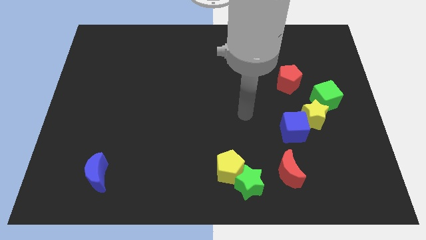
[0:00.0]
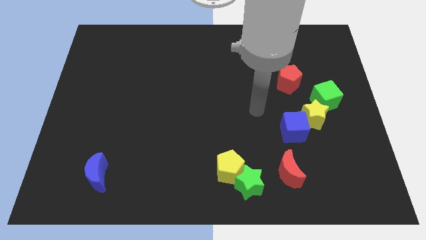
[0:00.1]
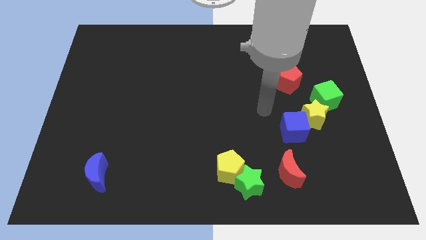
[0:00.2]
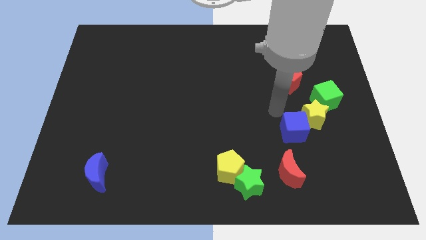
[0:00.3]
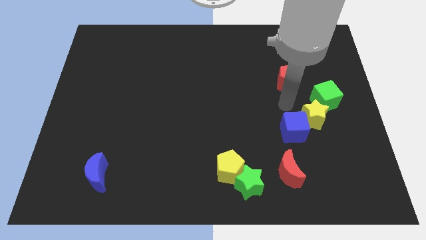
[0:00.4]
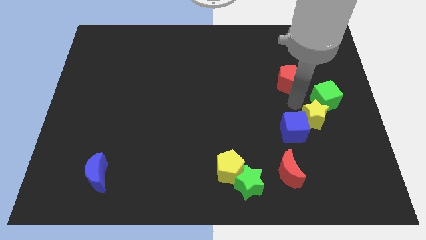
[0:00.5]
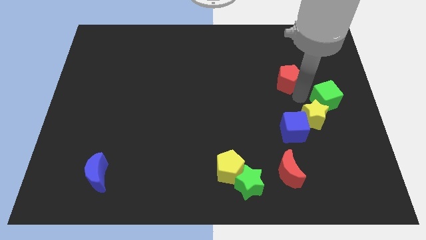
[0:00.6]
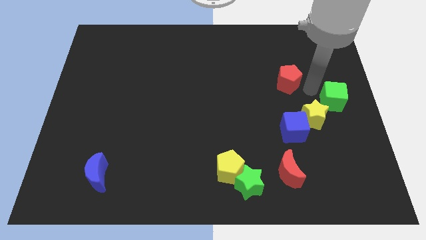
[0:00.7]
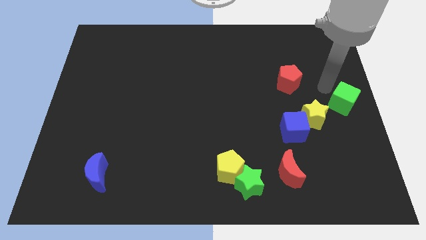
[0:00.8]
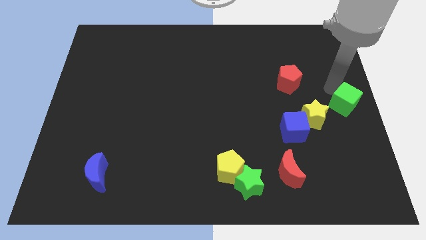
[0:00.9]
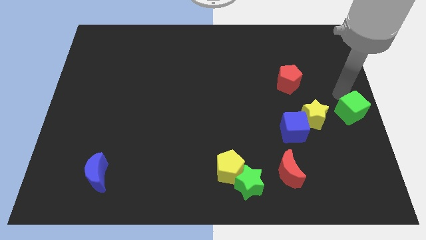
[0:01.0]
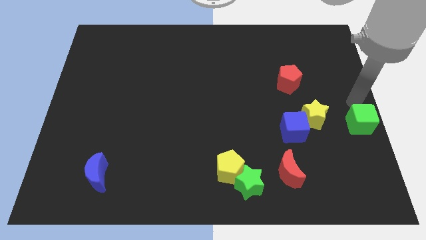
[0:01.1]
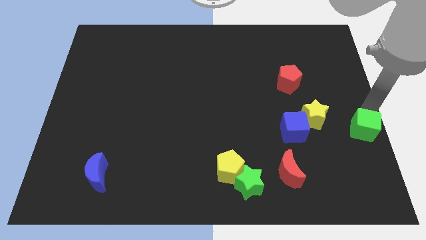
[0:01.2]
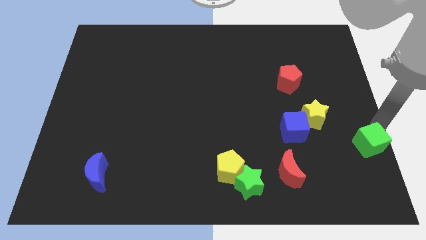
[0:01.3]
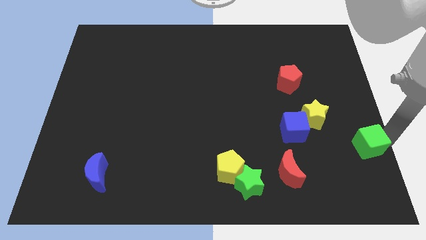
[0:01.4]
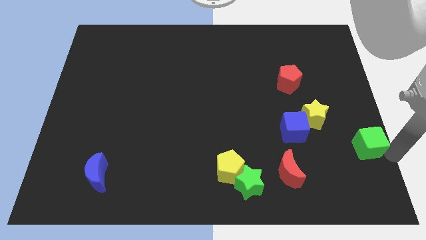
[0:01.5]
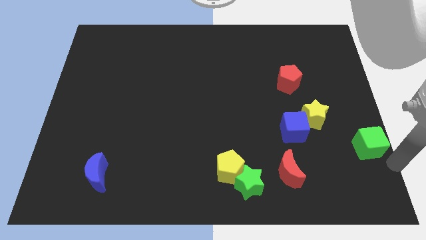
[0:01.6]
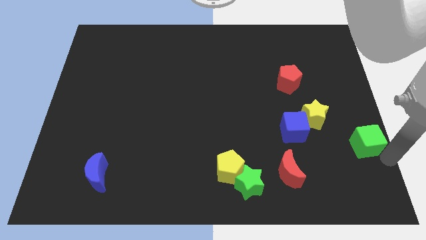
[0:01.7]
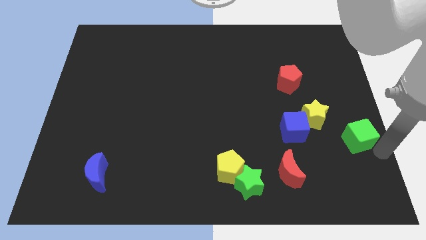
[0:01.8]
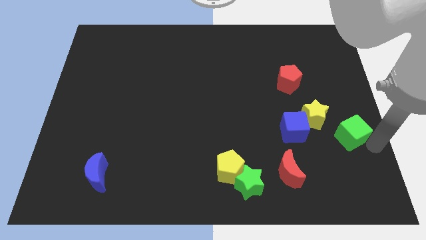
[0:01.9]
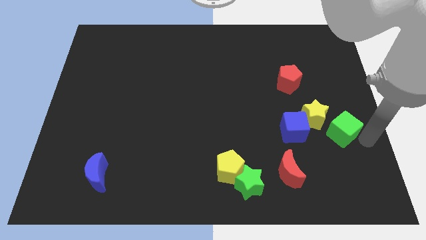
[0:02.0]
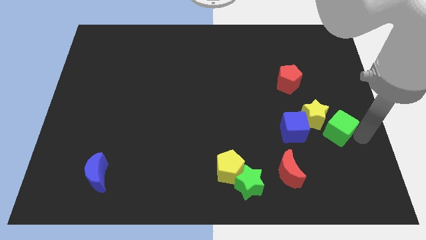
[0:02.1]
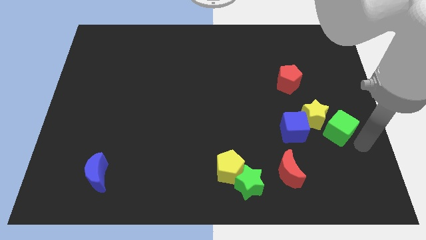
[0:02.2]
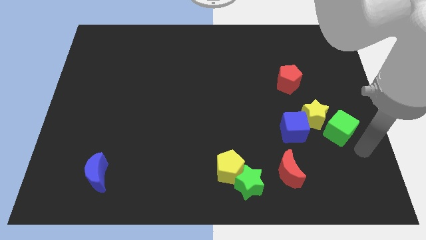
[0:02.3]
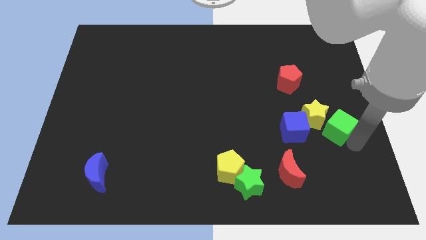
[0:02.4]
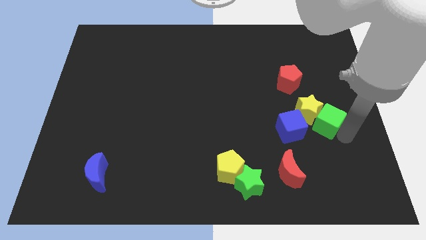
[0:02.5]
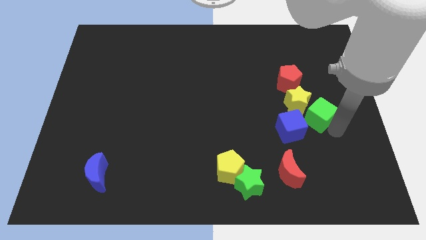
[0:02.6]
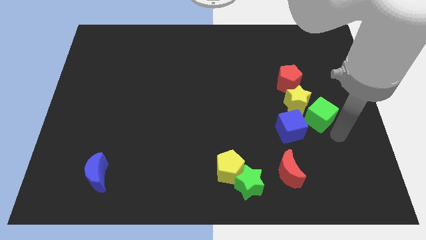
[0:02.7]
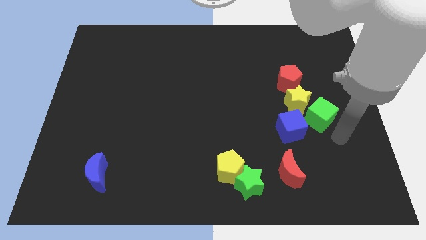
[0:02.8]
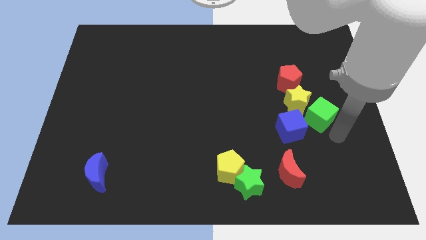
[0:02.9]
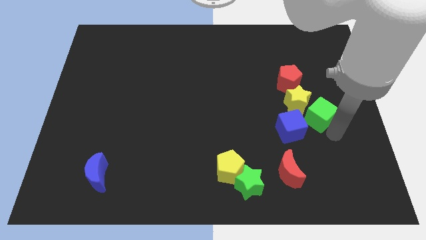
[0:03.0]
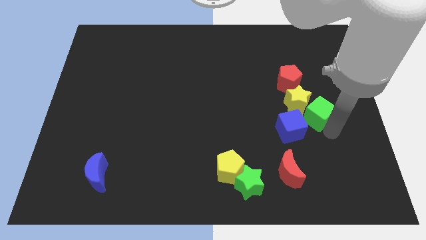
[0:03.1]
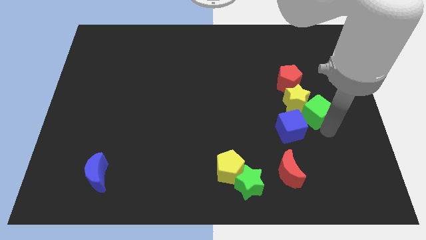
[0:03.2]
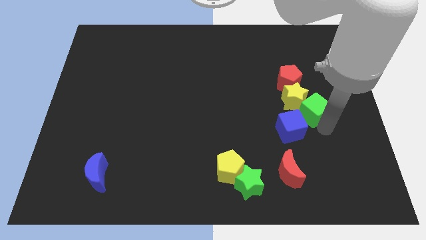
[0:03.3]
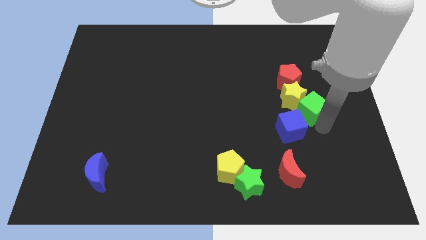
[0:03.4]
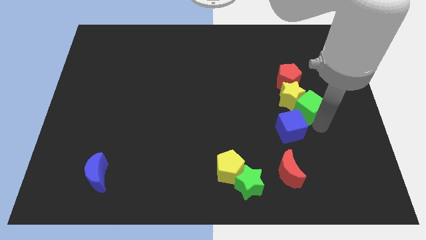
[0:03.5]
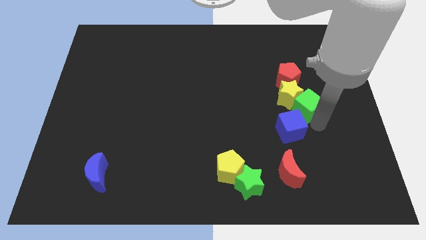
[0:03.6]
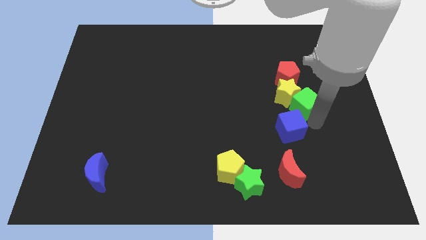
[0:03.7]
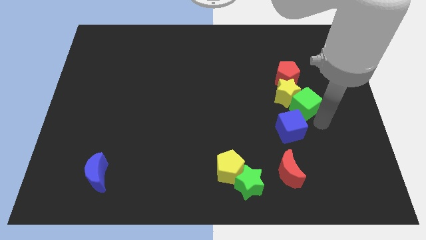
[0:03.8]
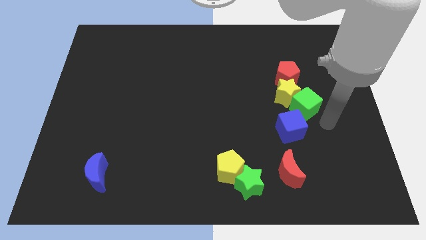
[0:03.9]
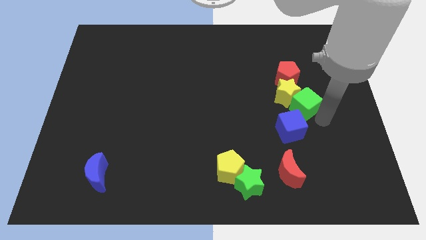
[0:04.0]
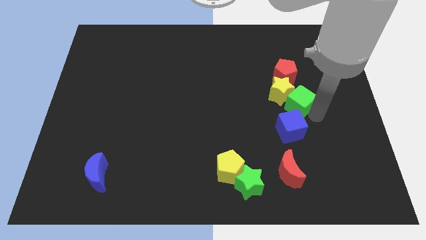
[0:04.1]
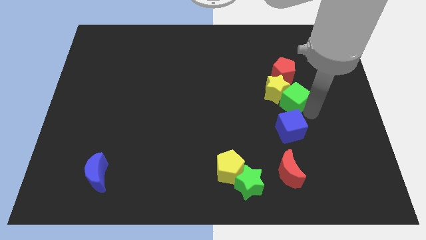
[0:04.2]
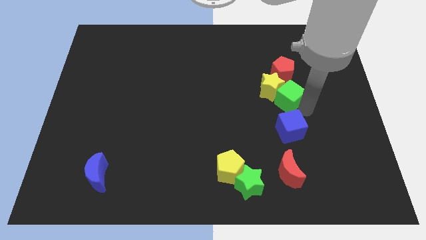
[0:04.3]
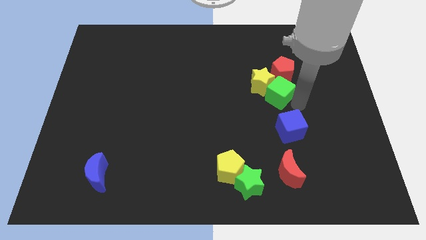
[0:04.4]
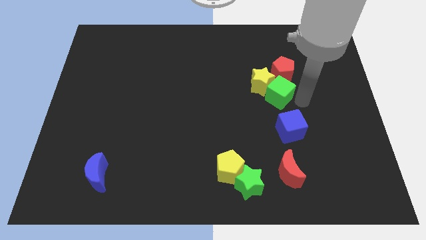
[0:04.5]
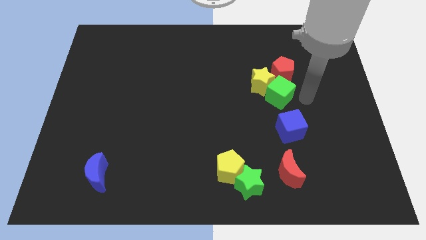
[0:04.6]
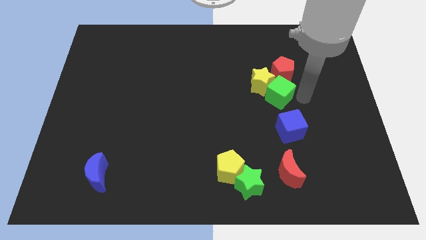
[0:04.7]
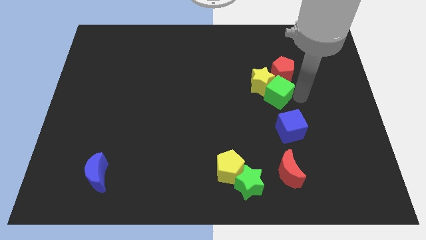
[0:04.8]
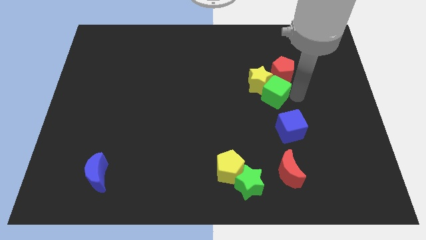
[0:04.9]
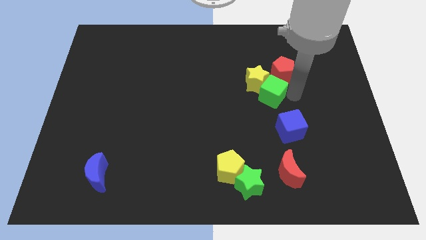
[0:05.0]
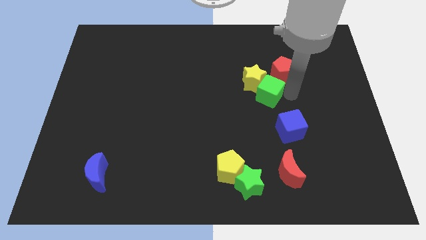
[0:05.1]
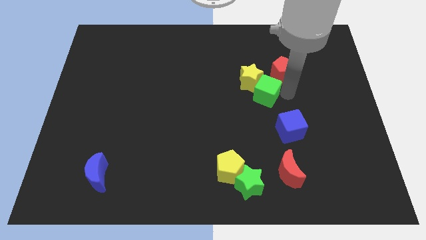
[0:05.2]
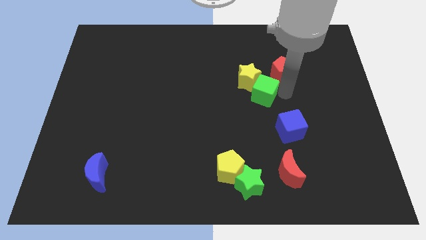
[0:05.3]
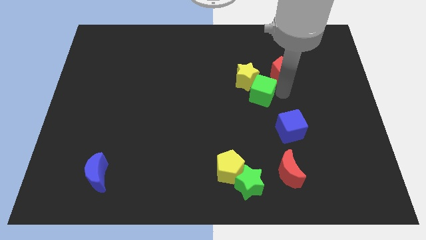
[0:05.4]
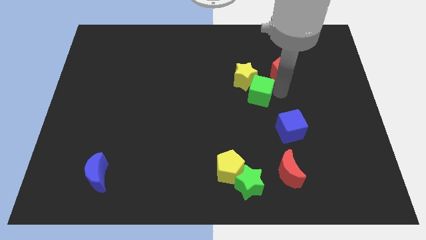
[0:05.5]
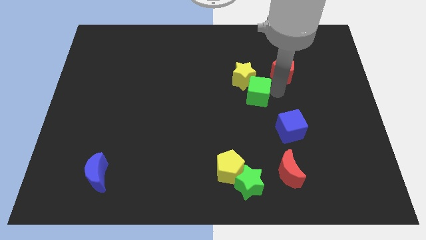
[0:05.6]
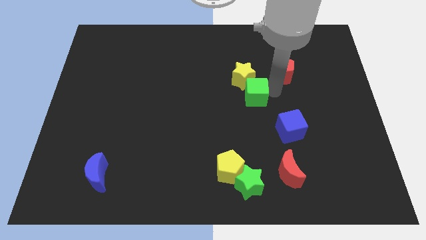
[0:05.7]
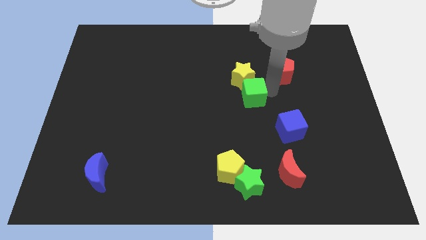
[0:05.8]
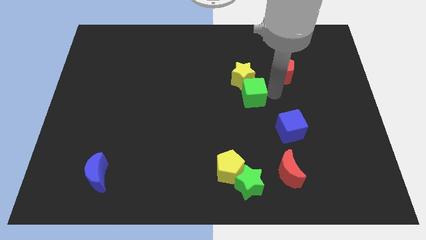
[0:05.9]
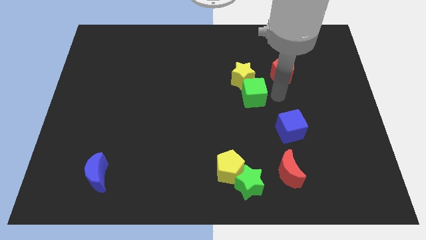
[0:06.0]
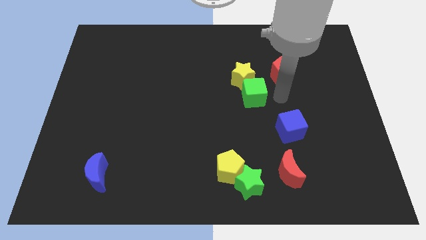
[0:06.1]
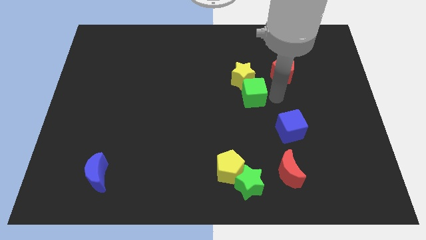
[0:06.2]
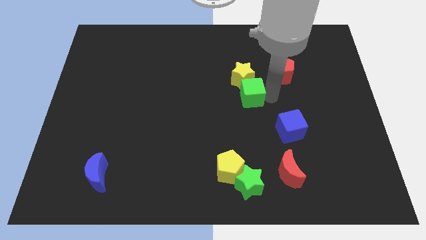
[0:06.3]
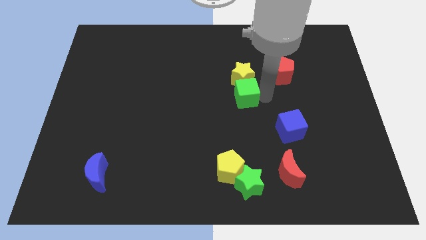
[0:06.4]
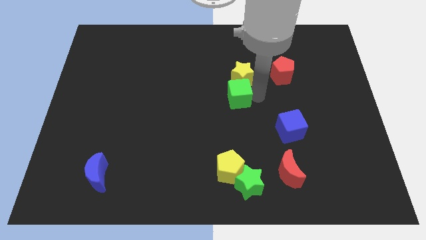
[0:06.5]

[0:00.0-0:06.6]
move the green cube to the left

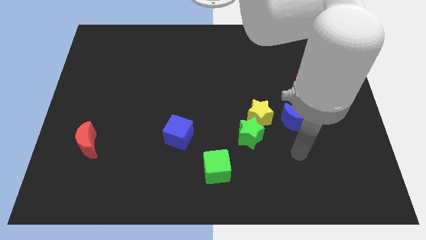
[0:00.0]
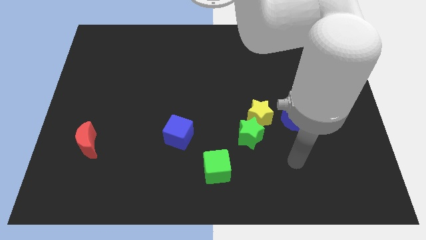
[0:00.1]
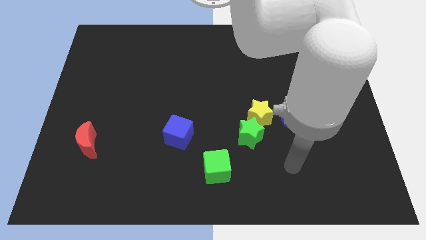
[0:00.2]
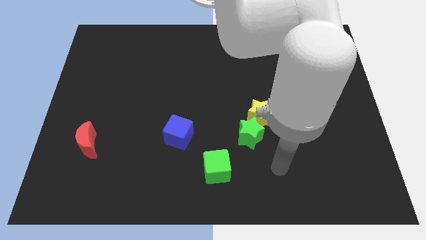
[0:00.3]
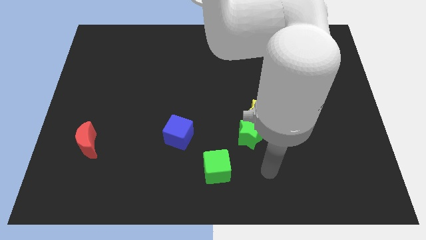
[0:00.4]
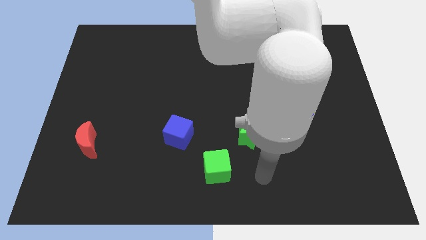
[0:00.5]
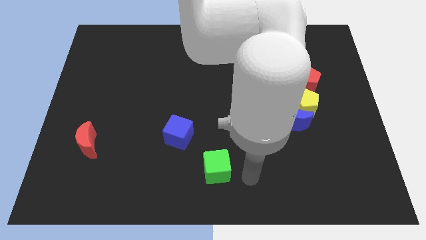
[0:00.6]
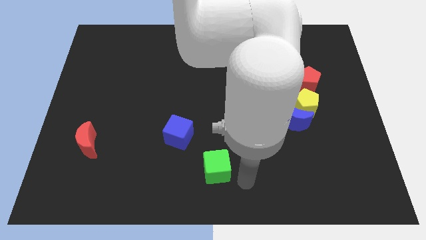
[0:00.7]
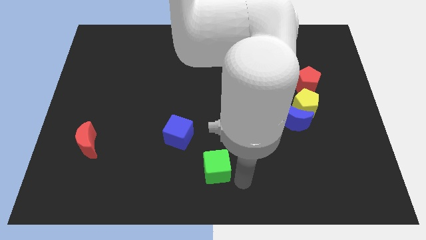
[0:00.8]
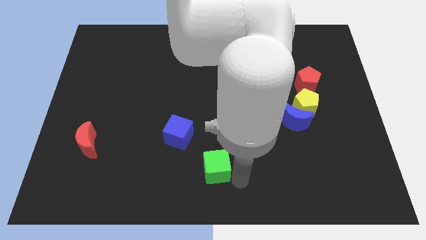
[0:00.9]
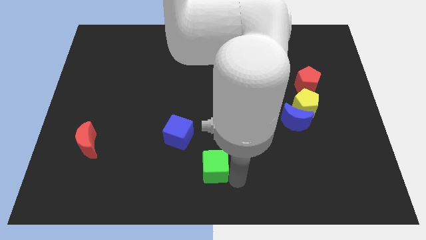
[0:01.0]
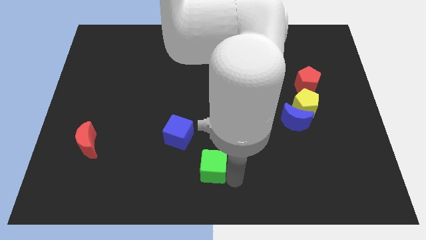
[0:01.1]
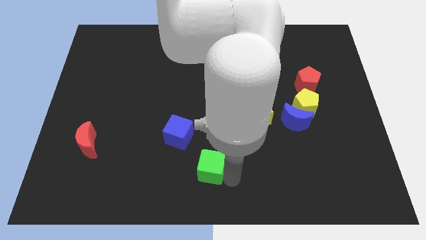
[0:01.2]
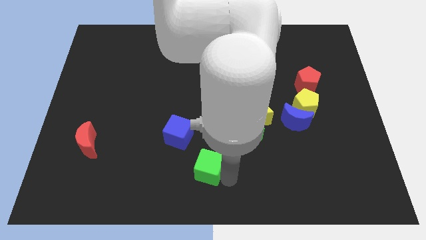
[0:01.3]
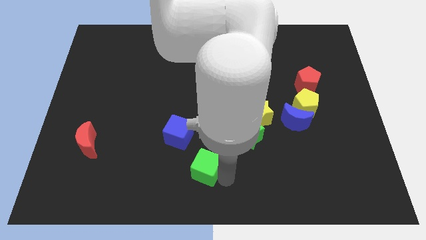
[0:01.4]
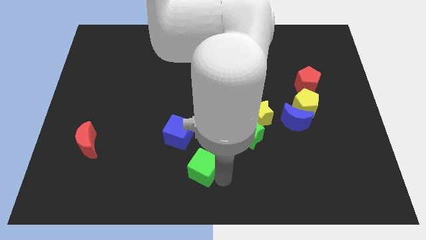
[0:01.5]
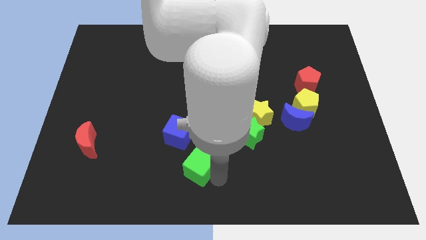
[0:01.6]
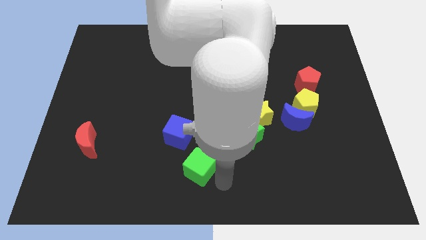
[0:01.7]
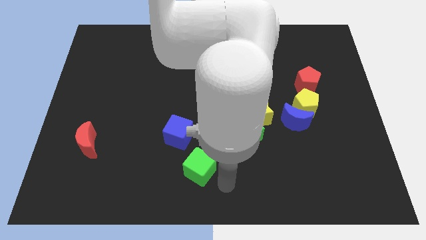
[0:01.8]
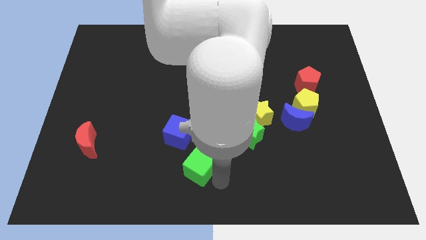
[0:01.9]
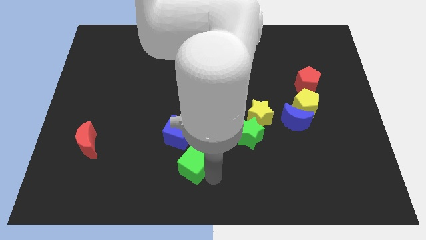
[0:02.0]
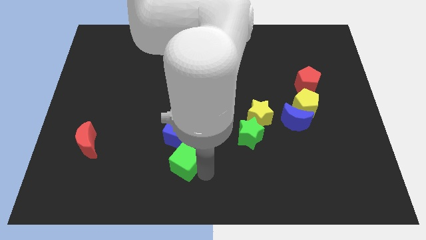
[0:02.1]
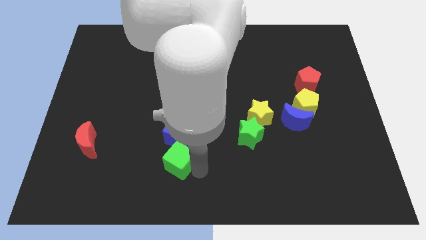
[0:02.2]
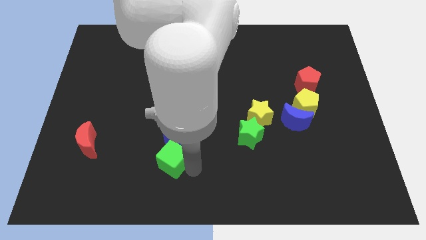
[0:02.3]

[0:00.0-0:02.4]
slightly move the green cube up and then left
